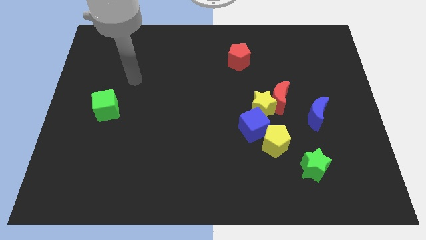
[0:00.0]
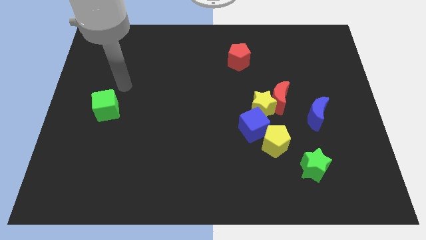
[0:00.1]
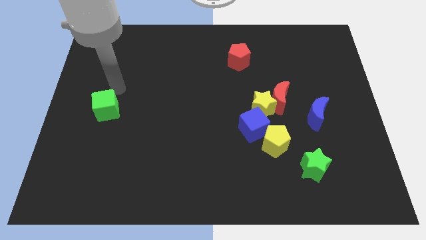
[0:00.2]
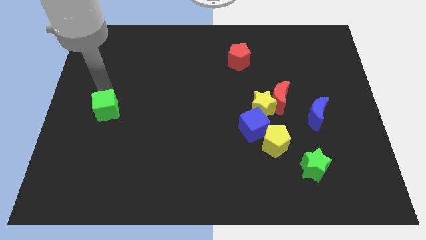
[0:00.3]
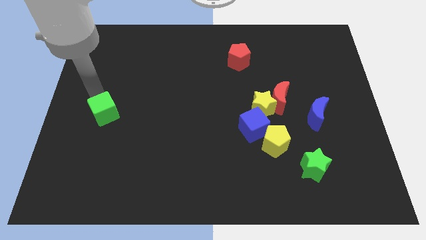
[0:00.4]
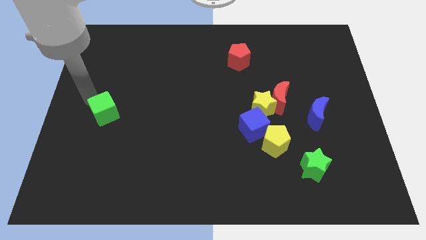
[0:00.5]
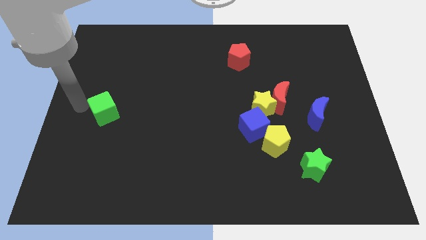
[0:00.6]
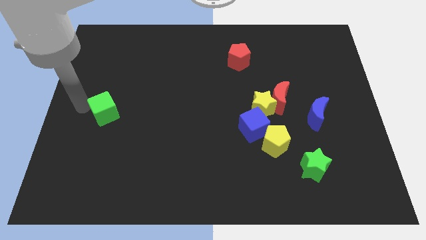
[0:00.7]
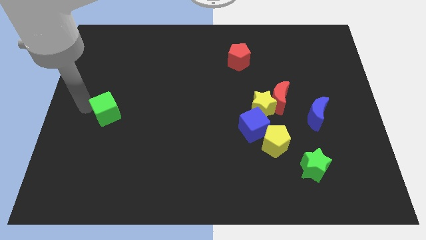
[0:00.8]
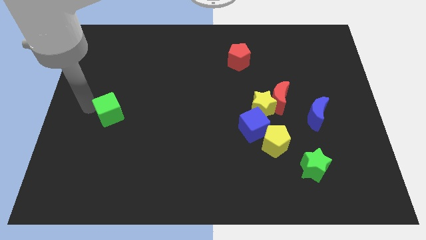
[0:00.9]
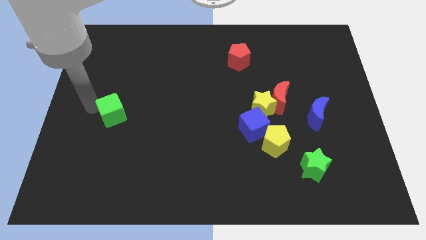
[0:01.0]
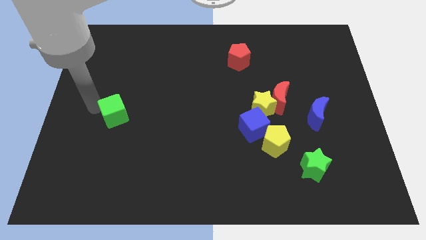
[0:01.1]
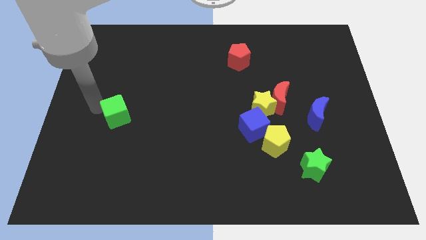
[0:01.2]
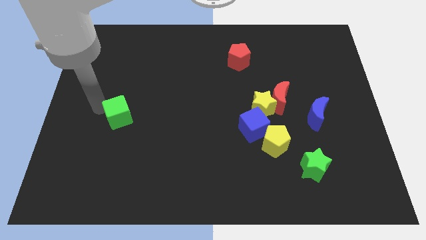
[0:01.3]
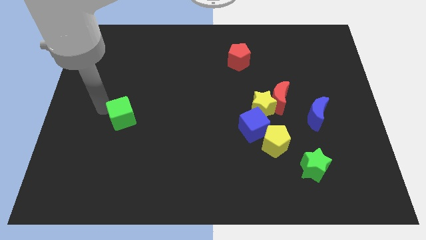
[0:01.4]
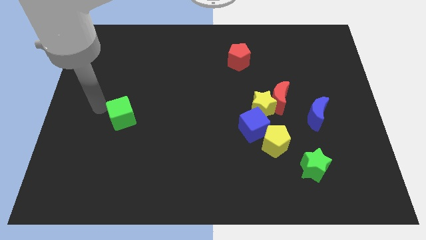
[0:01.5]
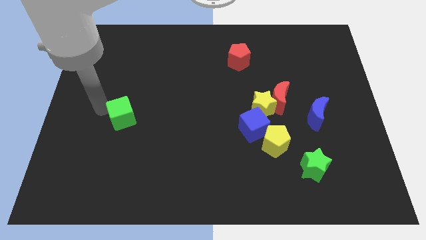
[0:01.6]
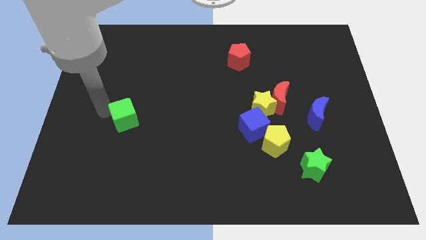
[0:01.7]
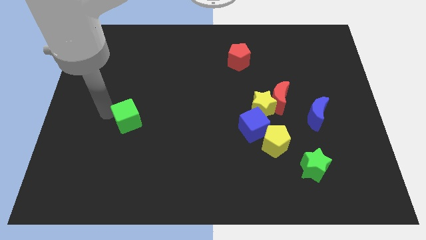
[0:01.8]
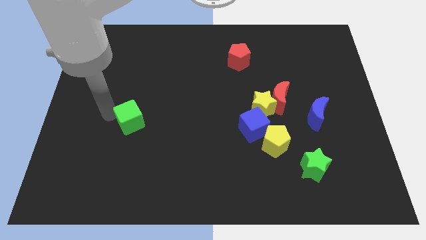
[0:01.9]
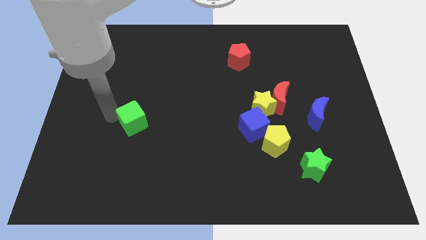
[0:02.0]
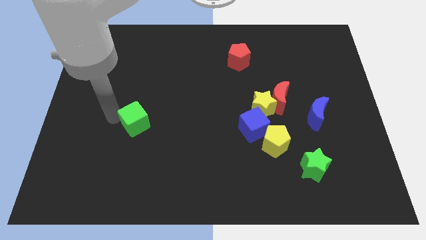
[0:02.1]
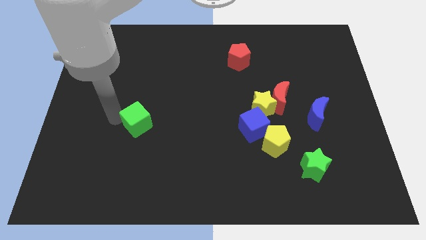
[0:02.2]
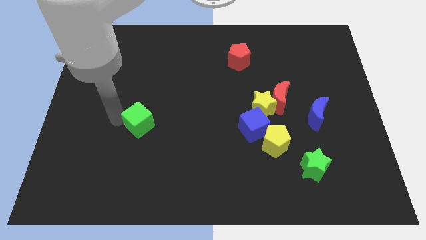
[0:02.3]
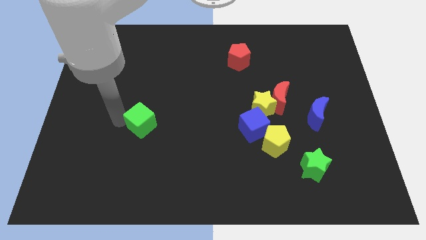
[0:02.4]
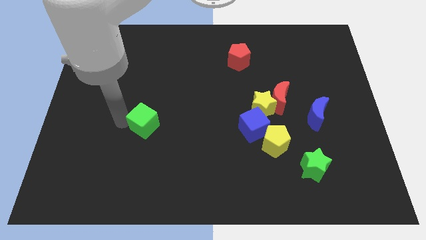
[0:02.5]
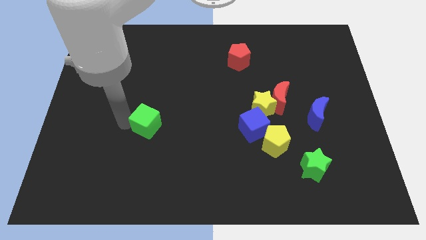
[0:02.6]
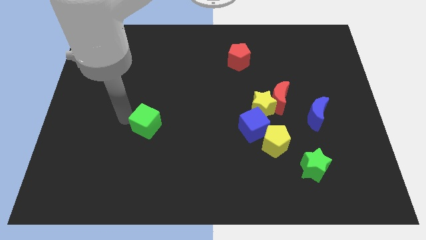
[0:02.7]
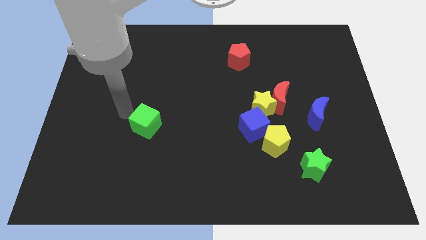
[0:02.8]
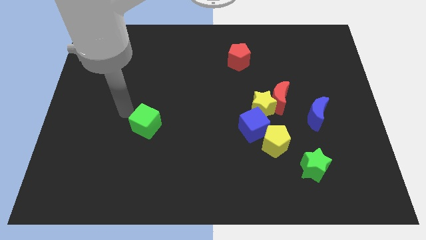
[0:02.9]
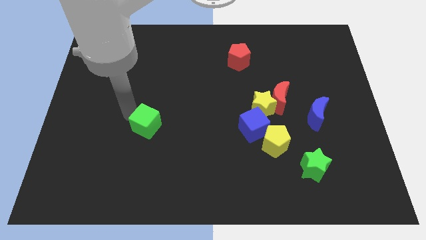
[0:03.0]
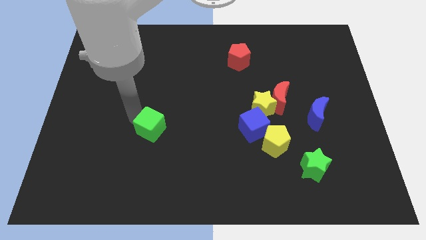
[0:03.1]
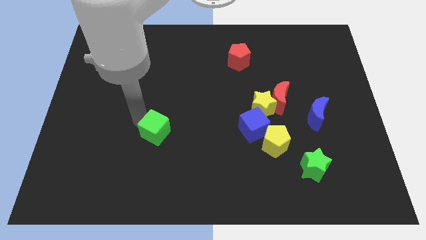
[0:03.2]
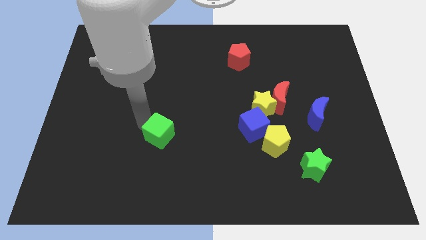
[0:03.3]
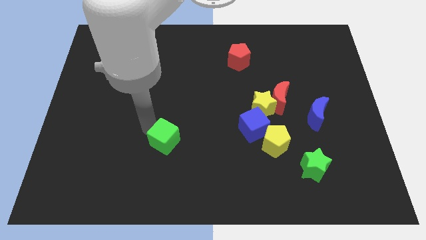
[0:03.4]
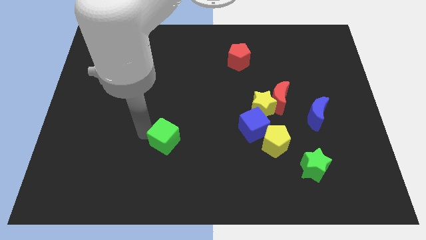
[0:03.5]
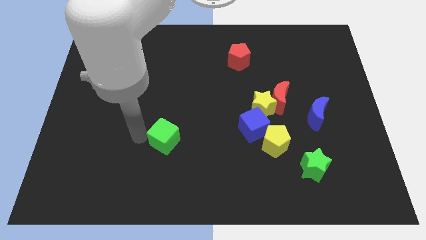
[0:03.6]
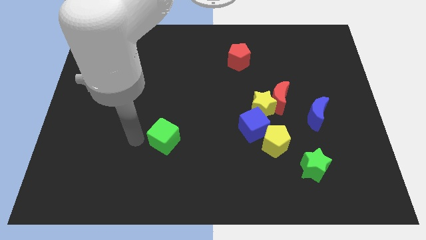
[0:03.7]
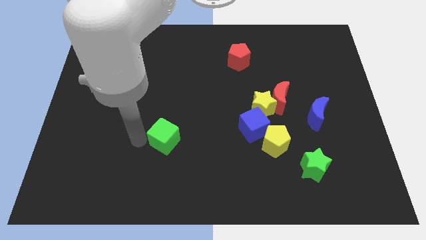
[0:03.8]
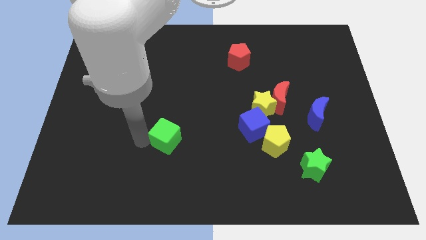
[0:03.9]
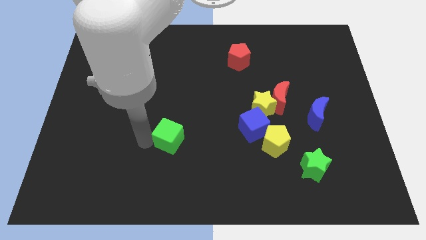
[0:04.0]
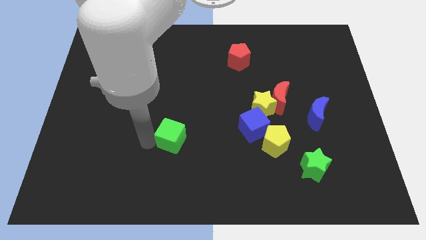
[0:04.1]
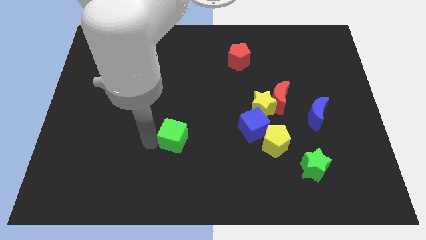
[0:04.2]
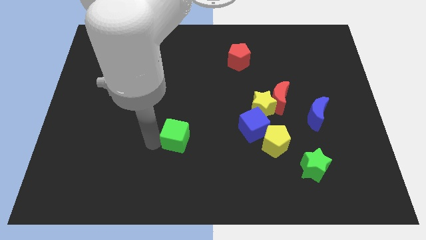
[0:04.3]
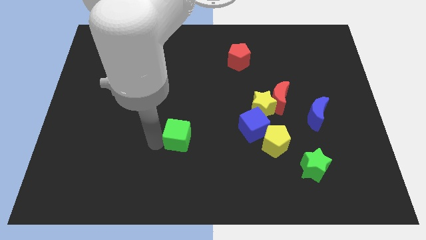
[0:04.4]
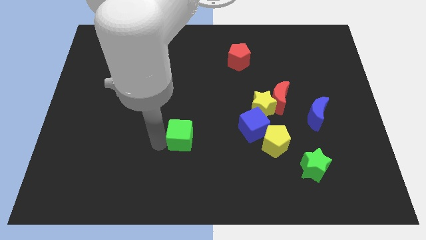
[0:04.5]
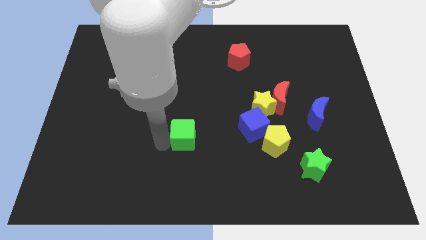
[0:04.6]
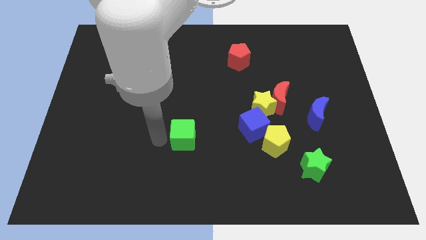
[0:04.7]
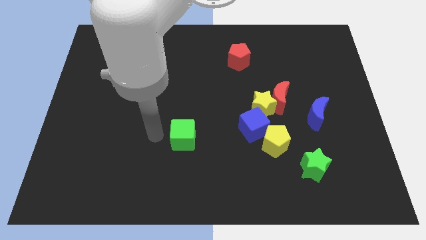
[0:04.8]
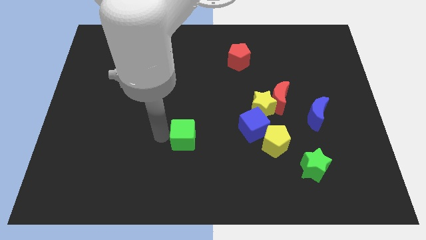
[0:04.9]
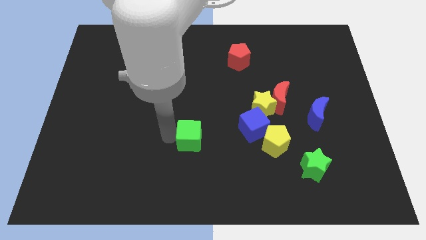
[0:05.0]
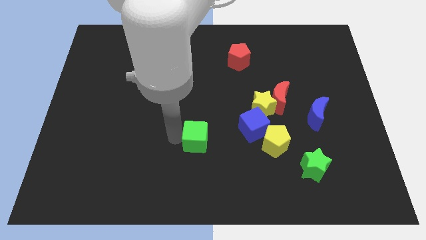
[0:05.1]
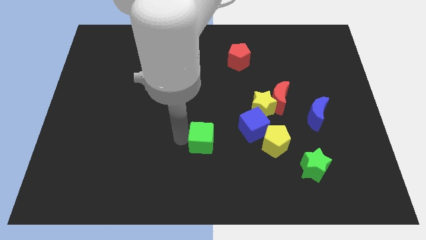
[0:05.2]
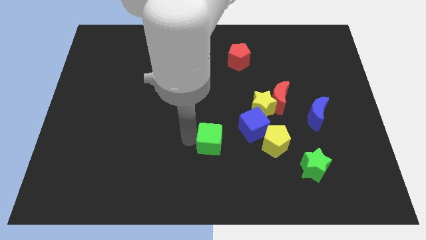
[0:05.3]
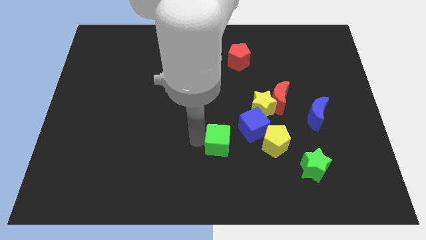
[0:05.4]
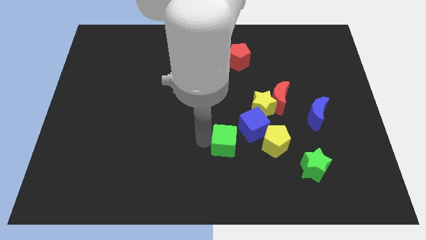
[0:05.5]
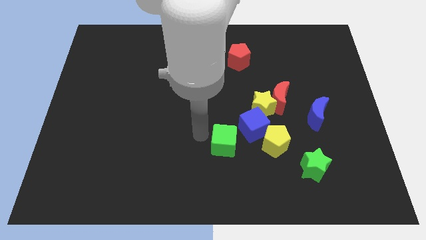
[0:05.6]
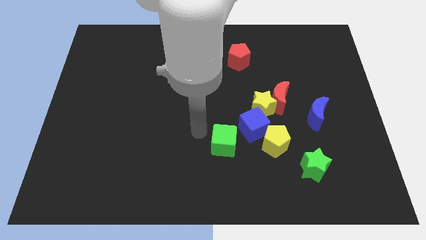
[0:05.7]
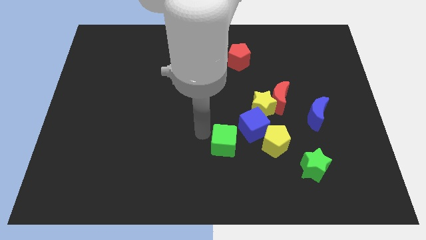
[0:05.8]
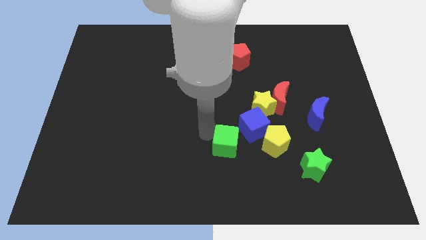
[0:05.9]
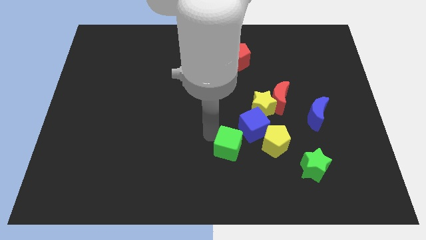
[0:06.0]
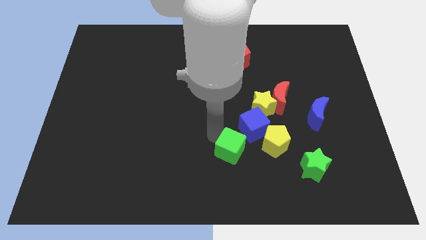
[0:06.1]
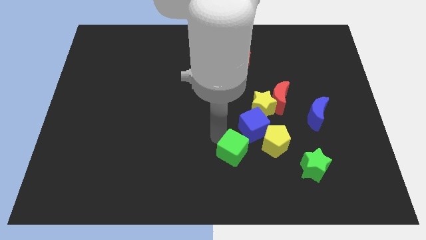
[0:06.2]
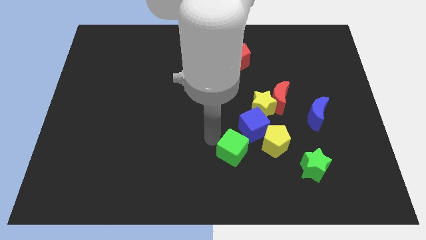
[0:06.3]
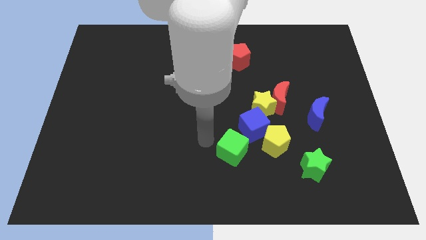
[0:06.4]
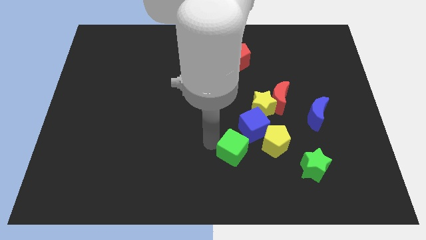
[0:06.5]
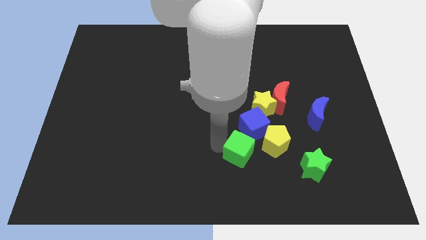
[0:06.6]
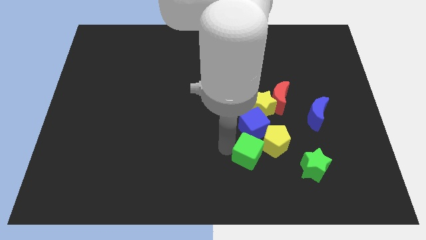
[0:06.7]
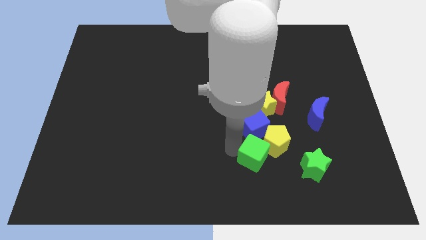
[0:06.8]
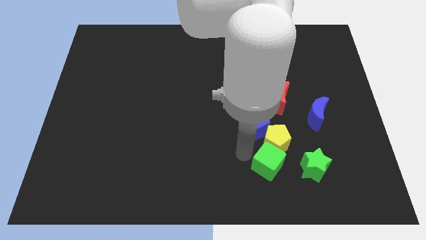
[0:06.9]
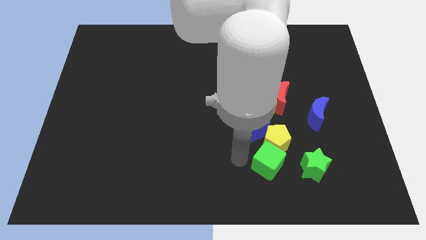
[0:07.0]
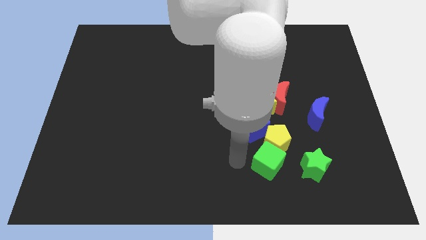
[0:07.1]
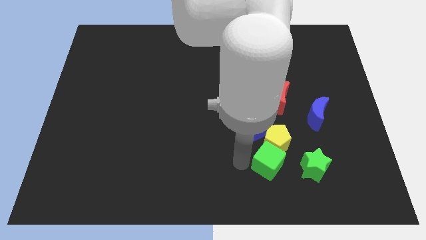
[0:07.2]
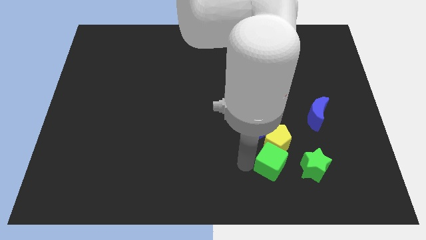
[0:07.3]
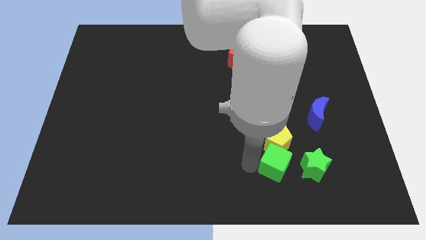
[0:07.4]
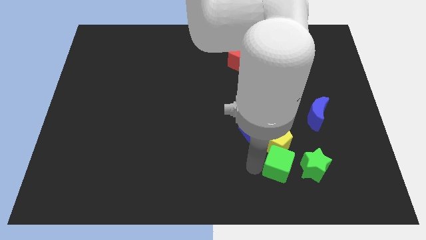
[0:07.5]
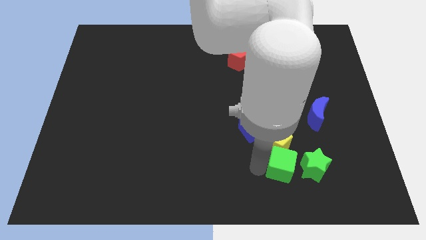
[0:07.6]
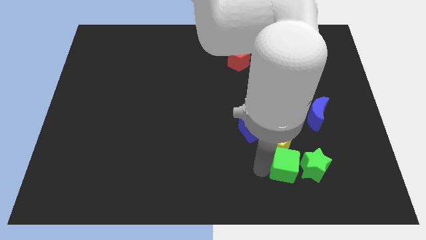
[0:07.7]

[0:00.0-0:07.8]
slide the green cube to the green star
